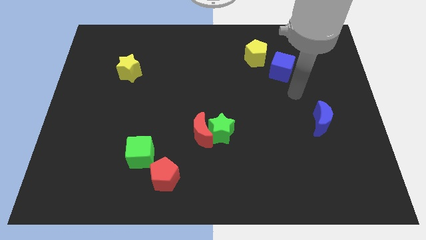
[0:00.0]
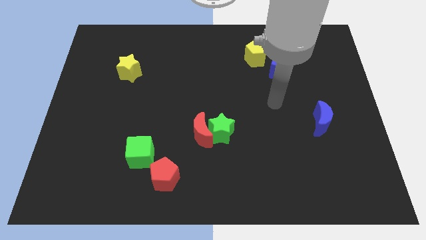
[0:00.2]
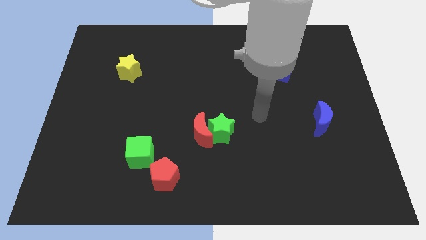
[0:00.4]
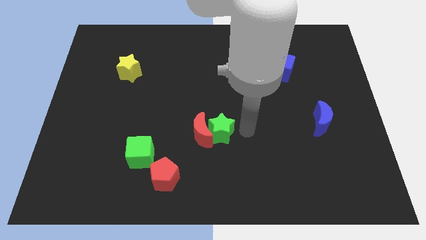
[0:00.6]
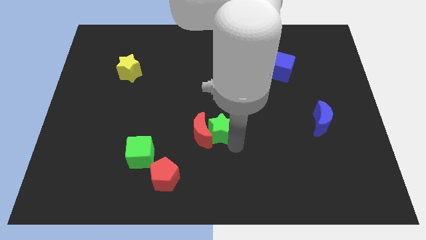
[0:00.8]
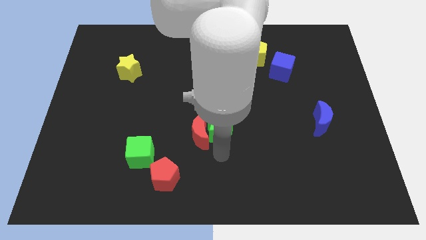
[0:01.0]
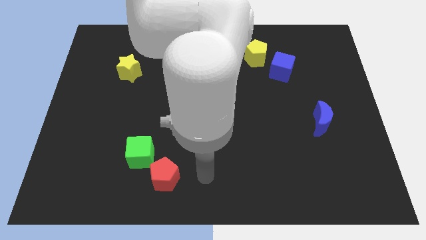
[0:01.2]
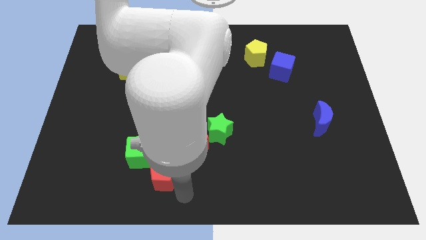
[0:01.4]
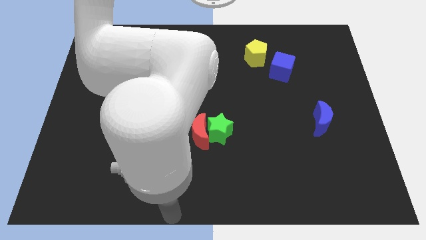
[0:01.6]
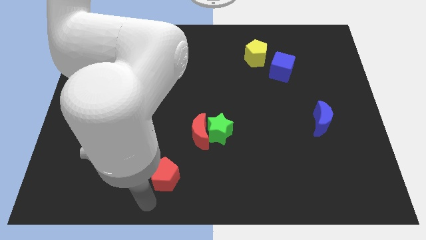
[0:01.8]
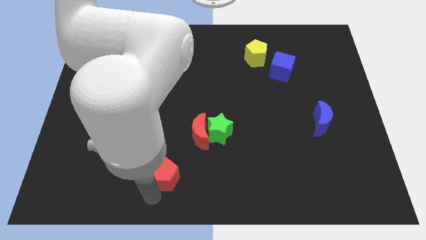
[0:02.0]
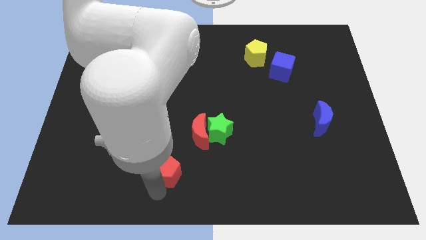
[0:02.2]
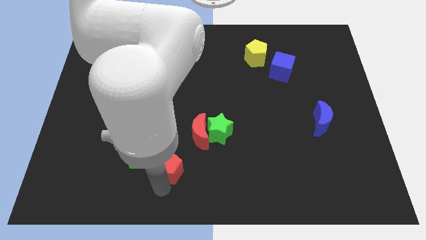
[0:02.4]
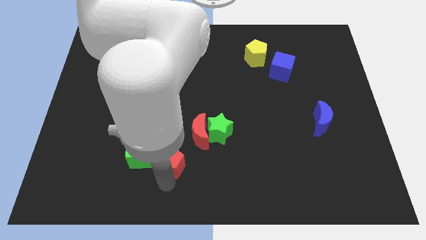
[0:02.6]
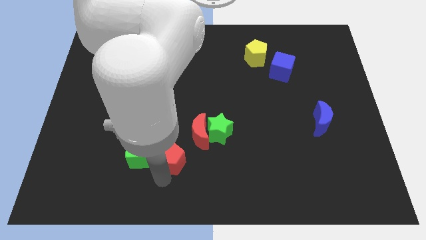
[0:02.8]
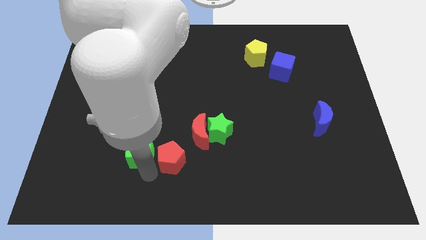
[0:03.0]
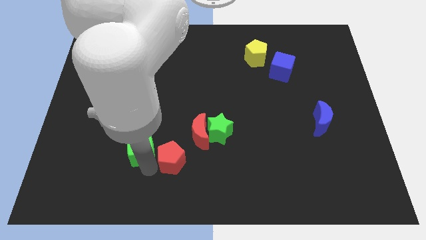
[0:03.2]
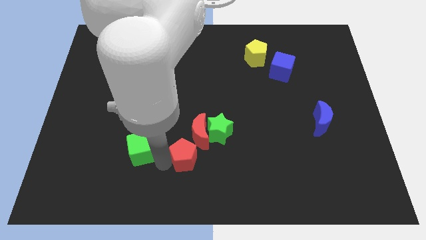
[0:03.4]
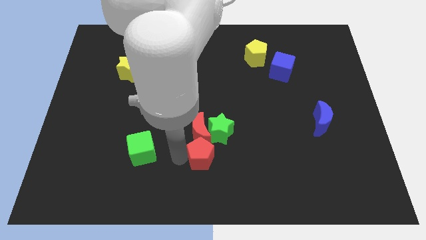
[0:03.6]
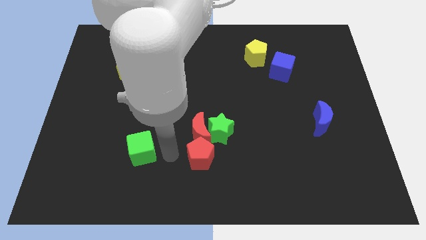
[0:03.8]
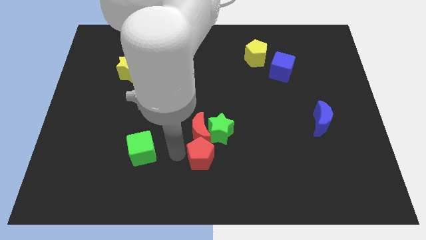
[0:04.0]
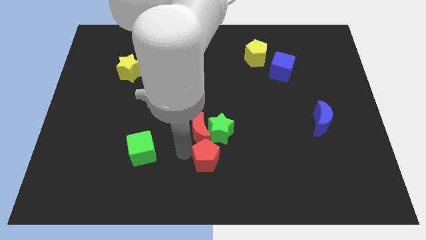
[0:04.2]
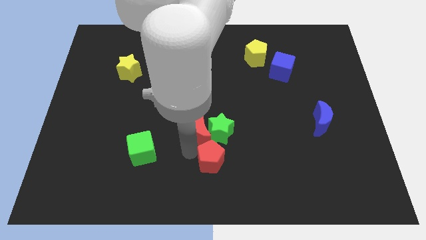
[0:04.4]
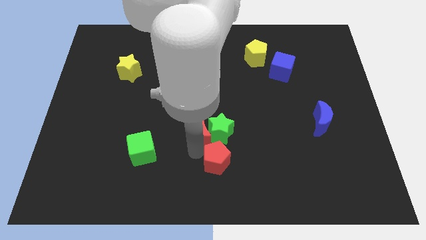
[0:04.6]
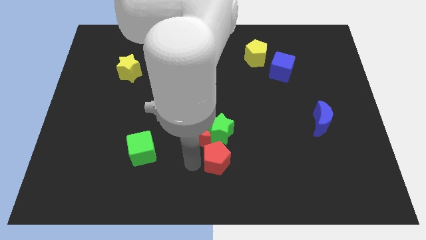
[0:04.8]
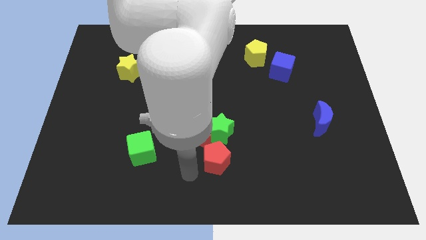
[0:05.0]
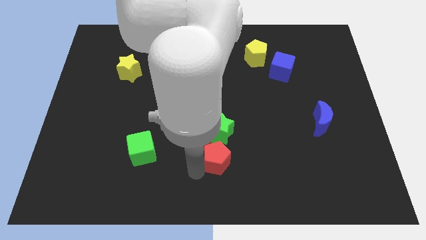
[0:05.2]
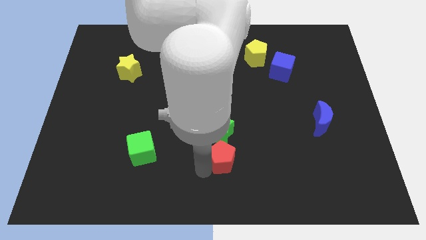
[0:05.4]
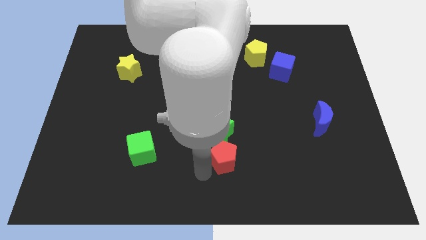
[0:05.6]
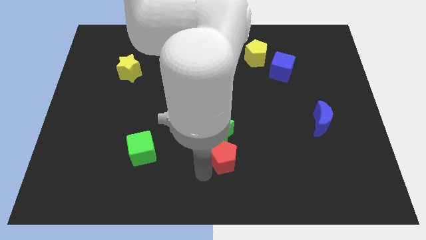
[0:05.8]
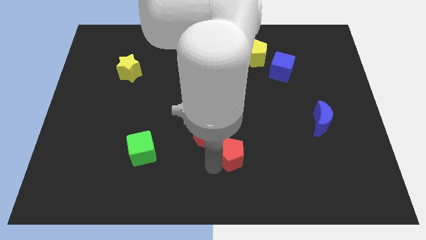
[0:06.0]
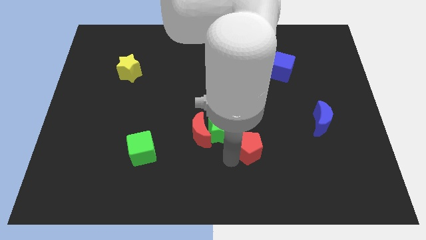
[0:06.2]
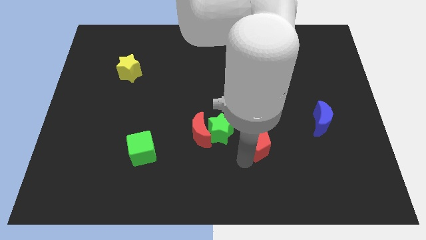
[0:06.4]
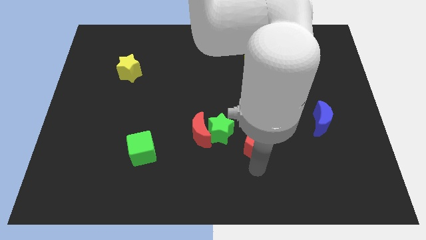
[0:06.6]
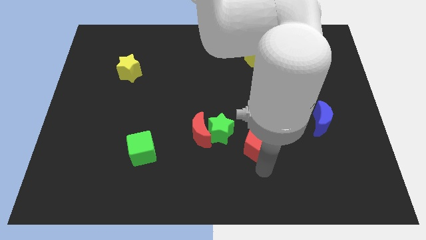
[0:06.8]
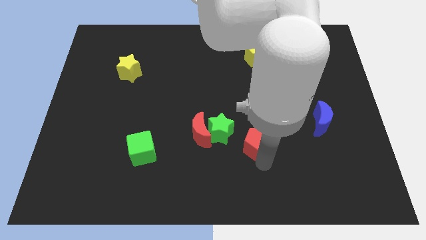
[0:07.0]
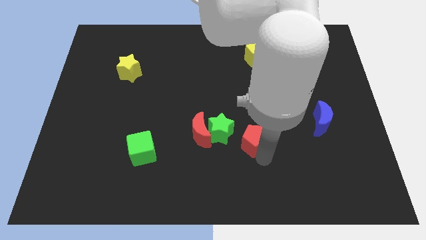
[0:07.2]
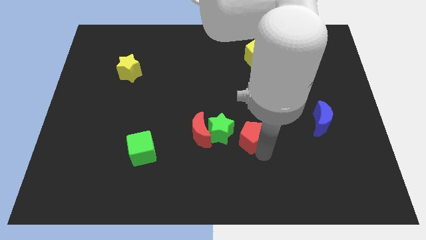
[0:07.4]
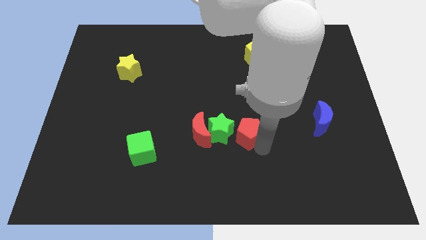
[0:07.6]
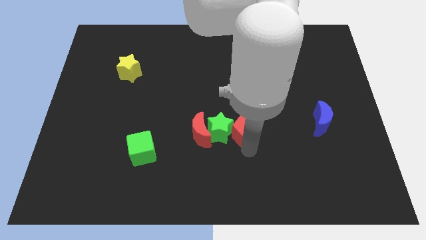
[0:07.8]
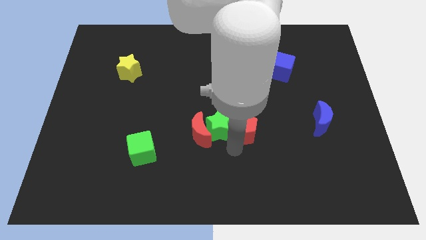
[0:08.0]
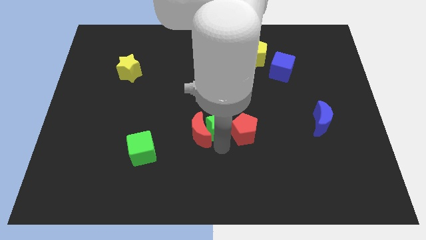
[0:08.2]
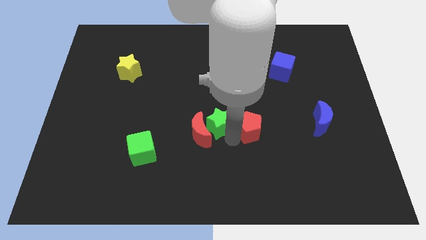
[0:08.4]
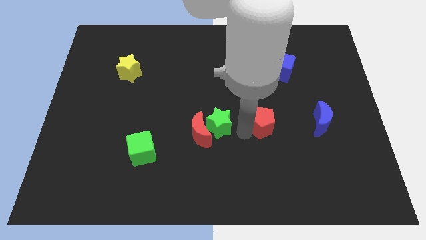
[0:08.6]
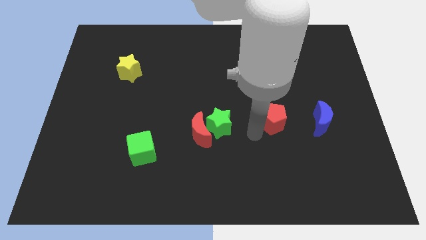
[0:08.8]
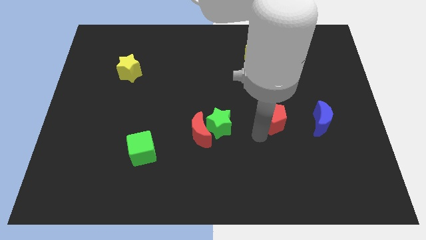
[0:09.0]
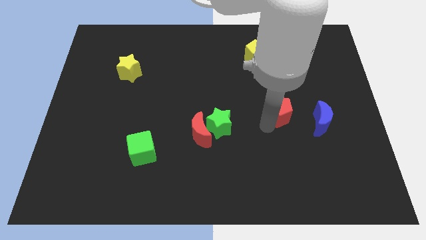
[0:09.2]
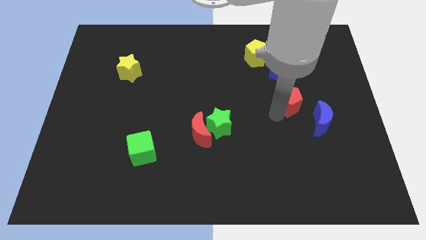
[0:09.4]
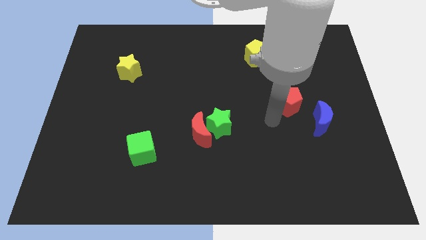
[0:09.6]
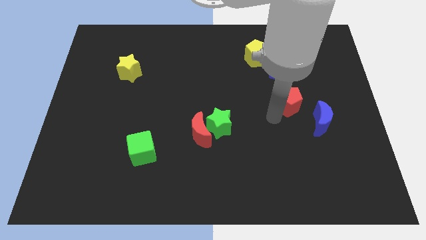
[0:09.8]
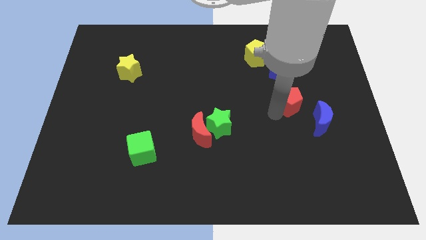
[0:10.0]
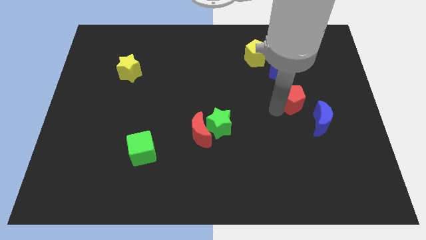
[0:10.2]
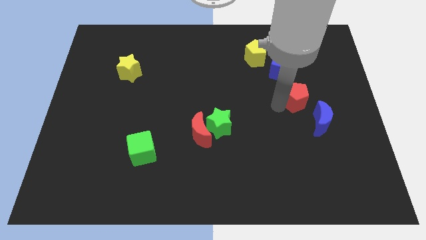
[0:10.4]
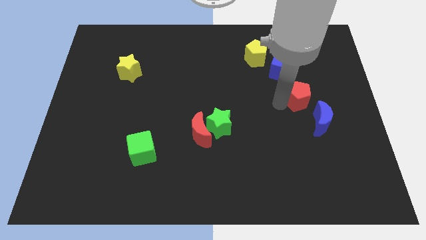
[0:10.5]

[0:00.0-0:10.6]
slide the red pentagon diagonally down and to the right of the blue cube

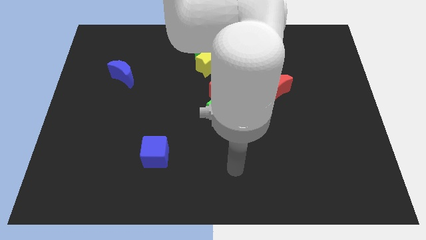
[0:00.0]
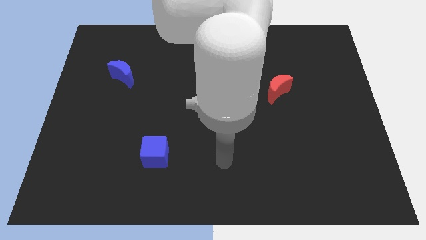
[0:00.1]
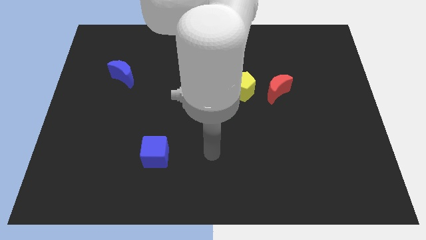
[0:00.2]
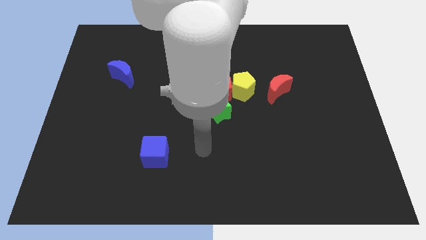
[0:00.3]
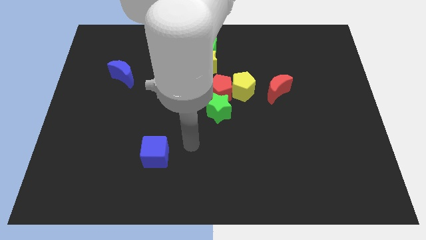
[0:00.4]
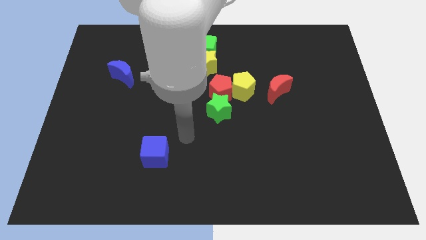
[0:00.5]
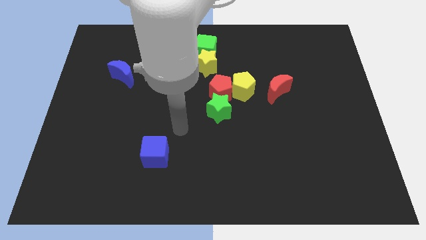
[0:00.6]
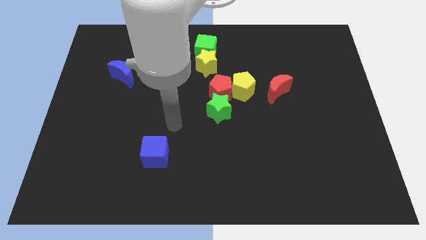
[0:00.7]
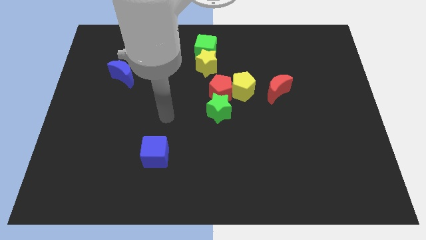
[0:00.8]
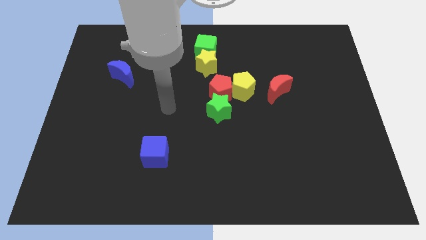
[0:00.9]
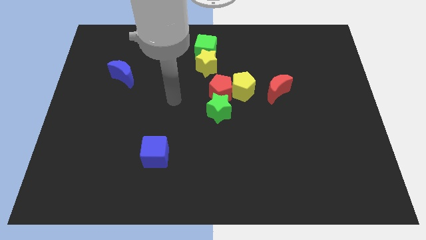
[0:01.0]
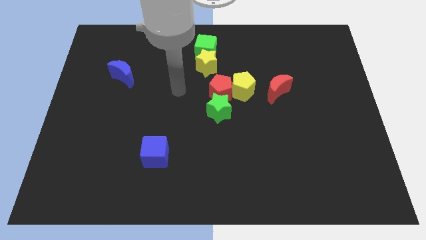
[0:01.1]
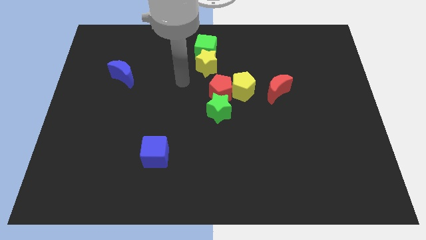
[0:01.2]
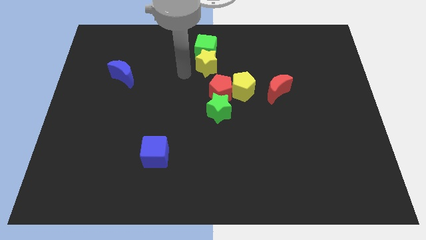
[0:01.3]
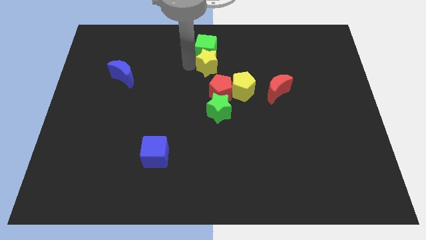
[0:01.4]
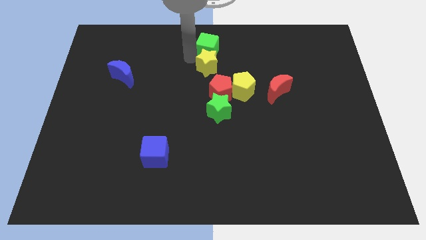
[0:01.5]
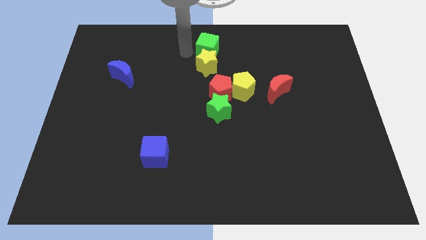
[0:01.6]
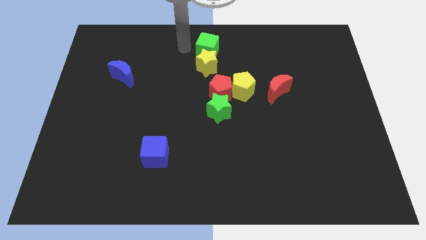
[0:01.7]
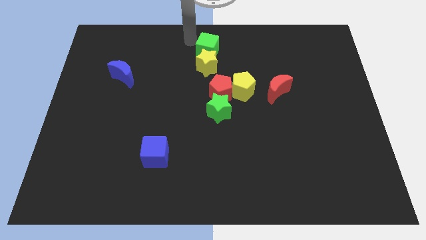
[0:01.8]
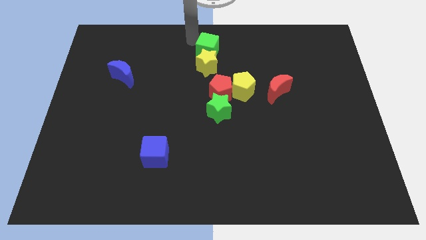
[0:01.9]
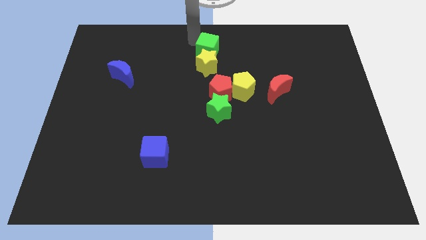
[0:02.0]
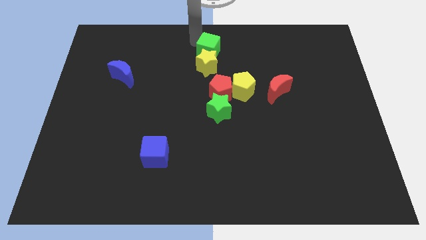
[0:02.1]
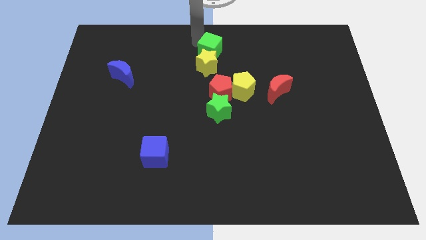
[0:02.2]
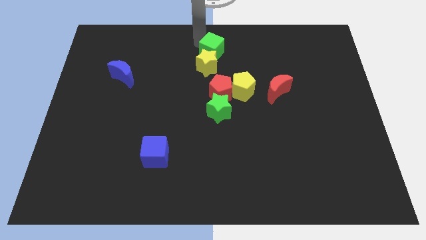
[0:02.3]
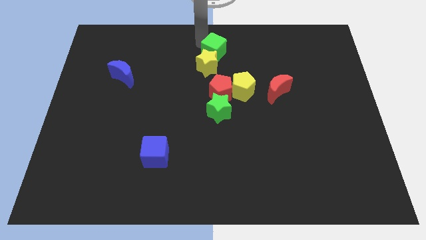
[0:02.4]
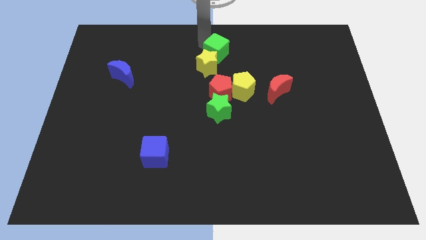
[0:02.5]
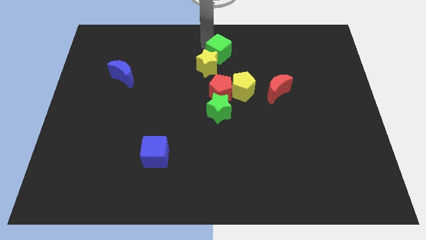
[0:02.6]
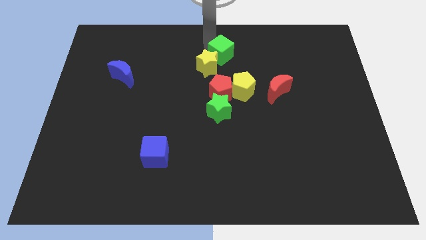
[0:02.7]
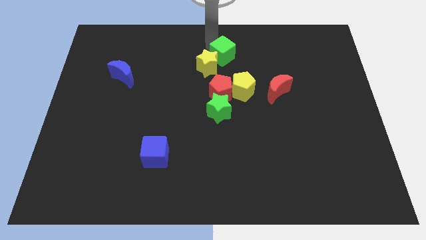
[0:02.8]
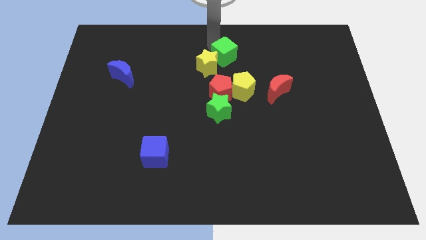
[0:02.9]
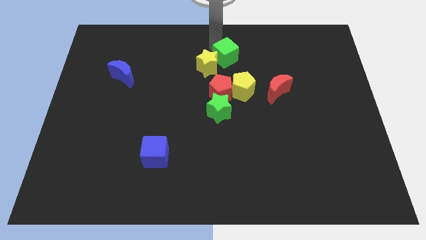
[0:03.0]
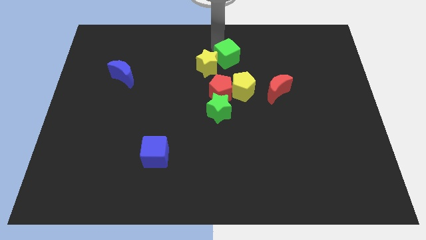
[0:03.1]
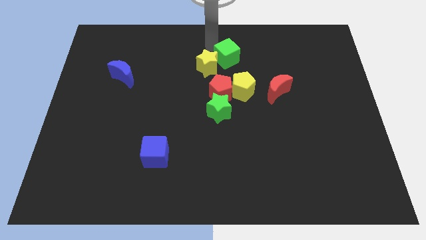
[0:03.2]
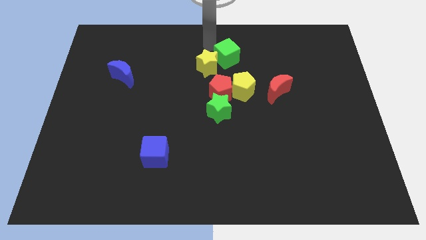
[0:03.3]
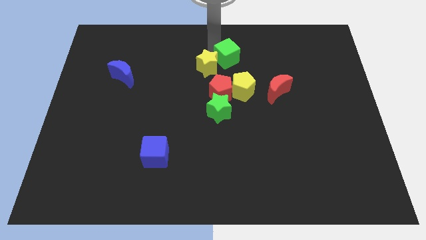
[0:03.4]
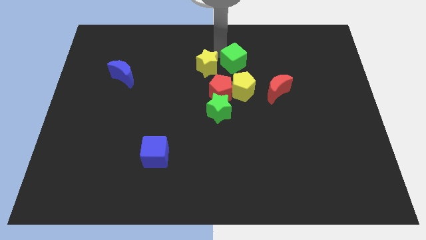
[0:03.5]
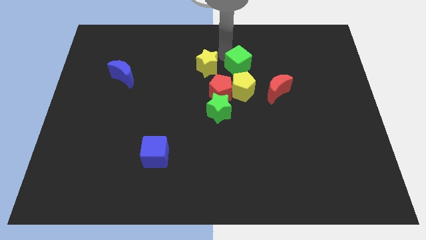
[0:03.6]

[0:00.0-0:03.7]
slide the green cube to the top left of the red moon
